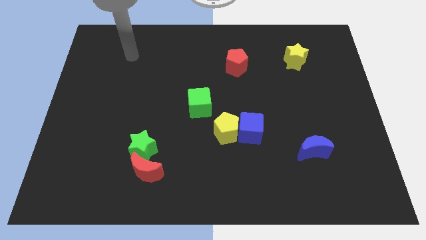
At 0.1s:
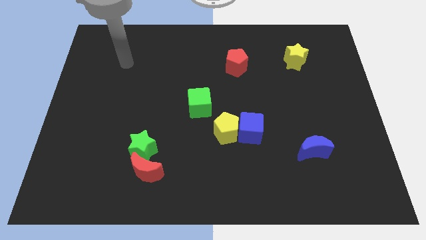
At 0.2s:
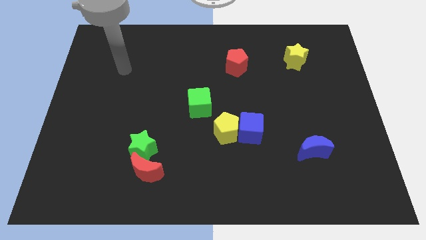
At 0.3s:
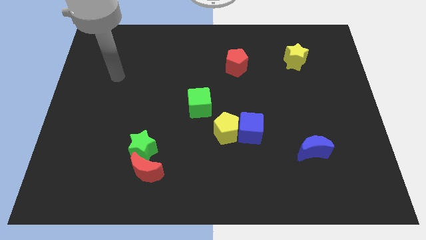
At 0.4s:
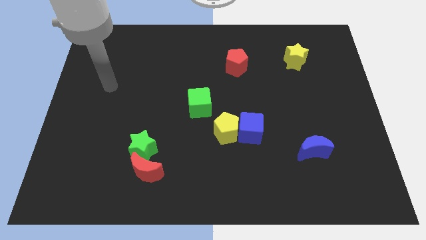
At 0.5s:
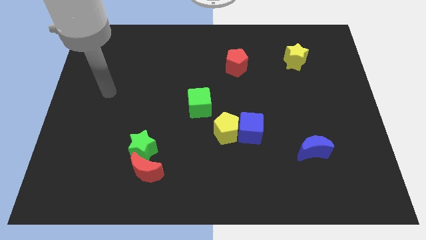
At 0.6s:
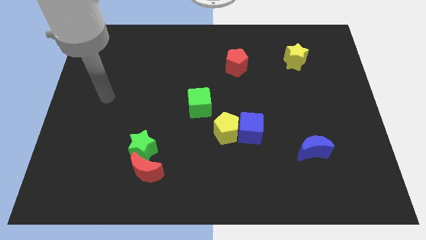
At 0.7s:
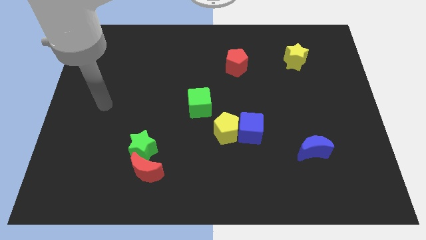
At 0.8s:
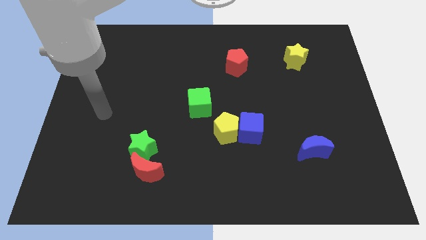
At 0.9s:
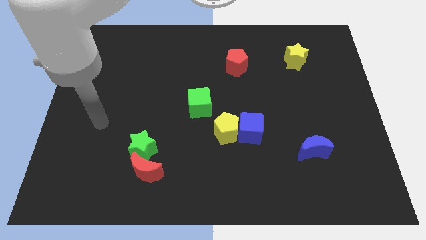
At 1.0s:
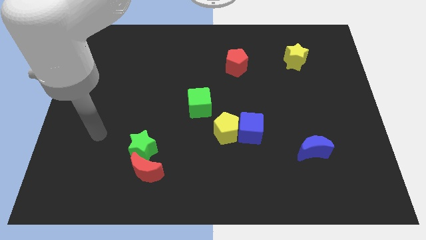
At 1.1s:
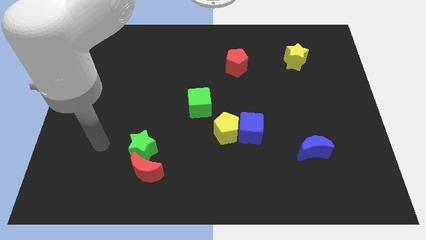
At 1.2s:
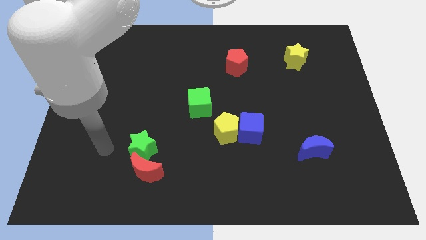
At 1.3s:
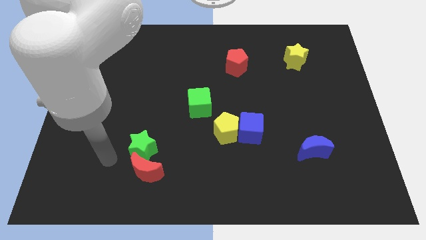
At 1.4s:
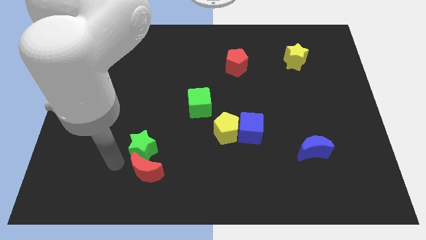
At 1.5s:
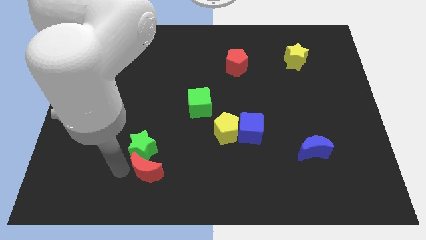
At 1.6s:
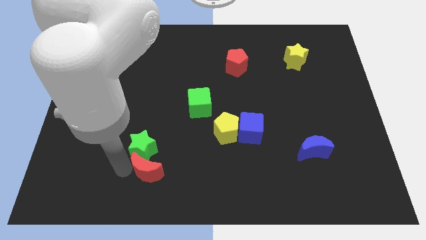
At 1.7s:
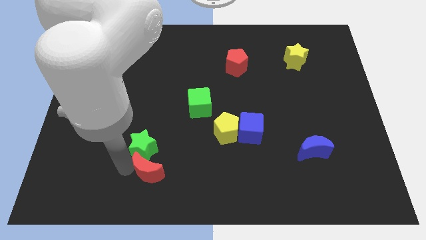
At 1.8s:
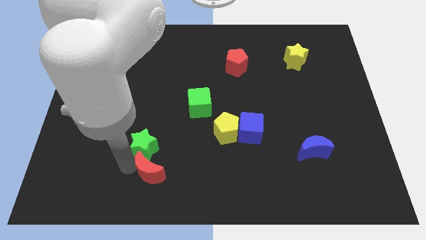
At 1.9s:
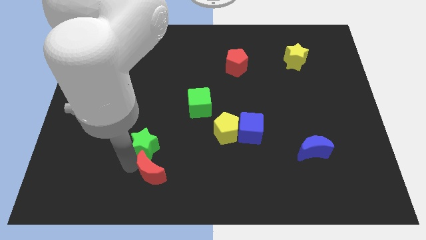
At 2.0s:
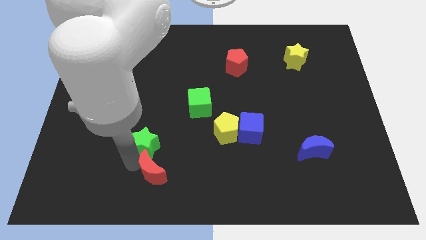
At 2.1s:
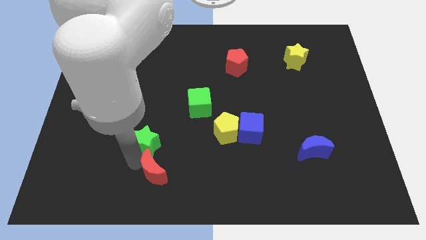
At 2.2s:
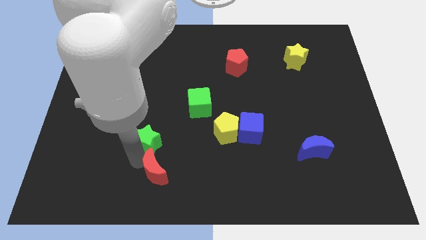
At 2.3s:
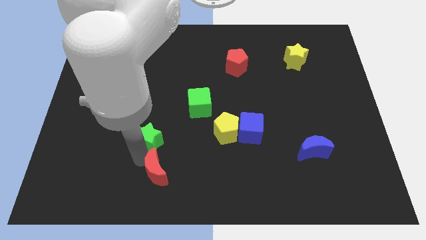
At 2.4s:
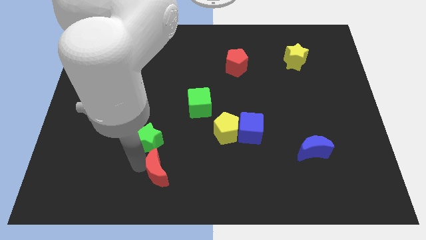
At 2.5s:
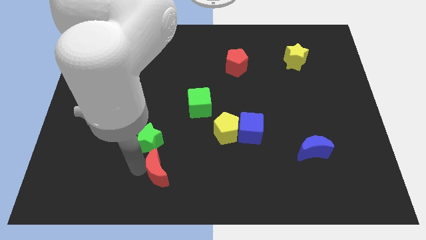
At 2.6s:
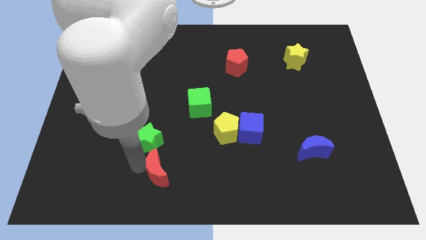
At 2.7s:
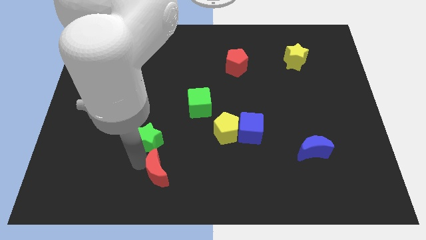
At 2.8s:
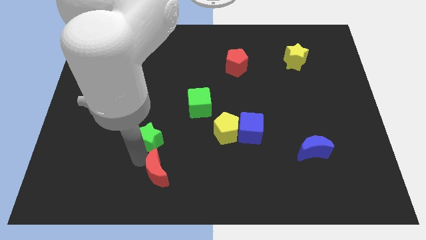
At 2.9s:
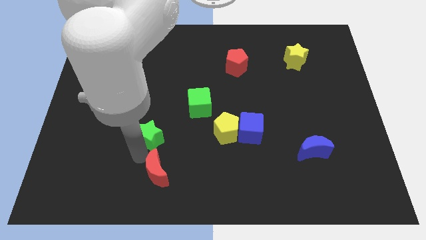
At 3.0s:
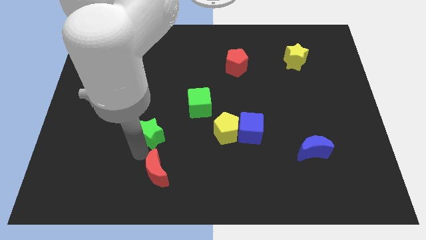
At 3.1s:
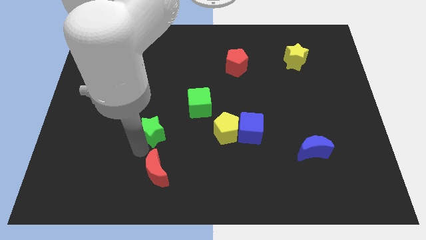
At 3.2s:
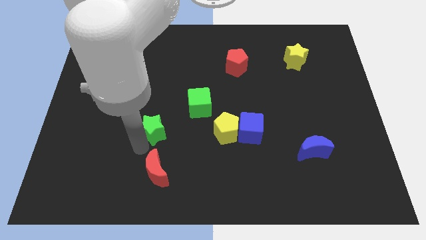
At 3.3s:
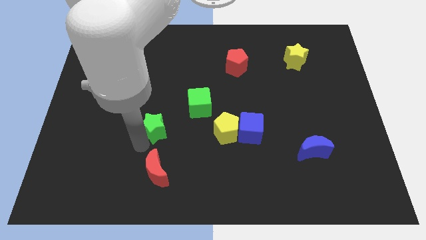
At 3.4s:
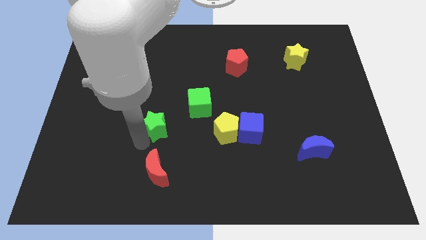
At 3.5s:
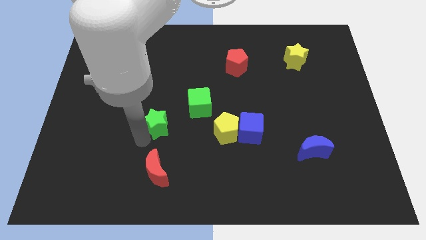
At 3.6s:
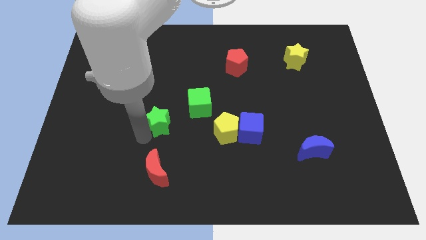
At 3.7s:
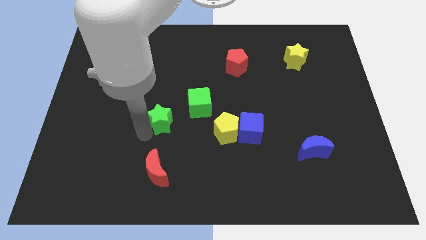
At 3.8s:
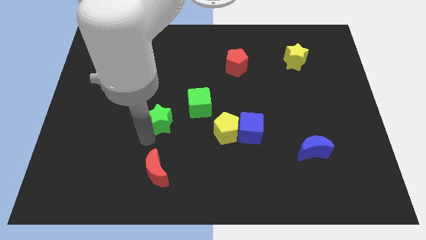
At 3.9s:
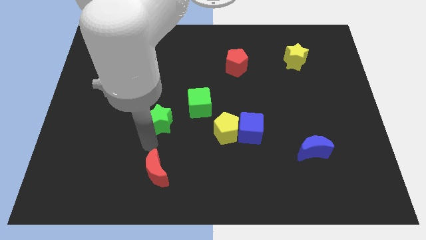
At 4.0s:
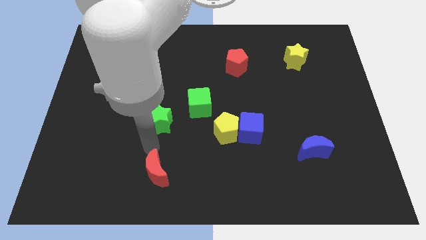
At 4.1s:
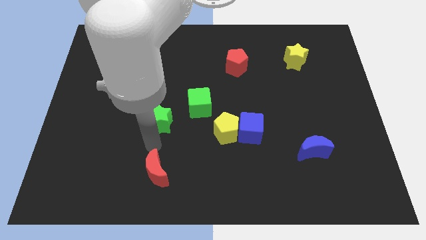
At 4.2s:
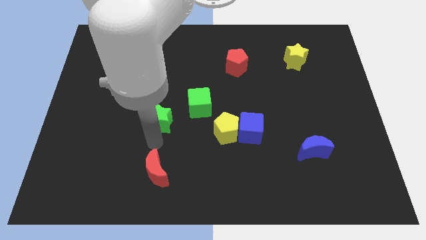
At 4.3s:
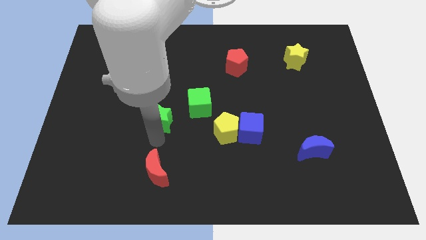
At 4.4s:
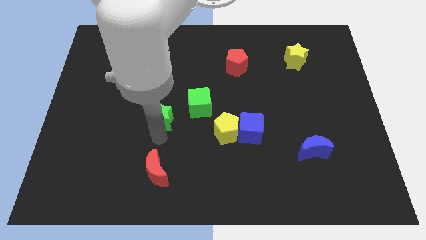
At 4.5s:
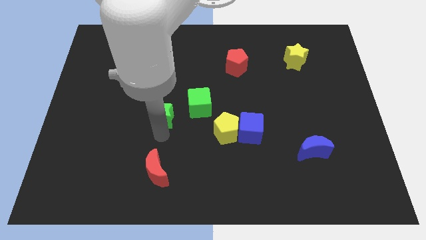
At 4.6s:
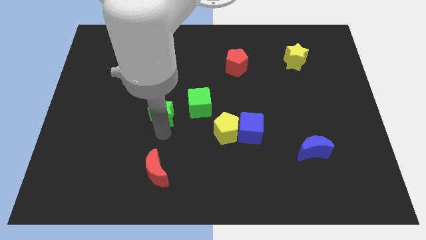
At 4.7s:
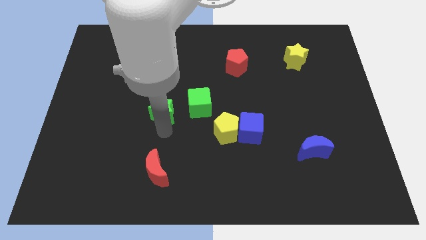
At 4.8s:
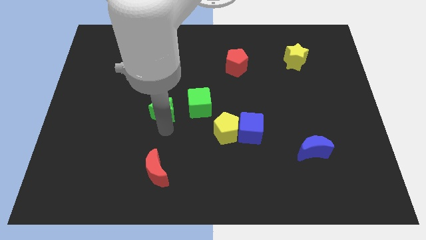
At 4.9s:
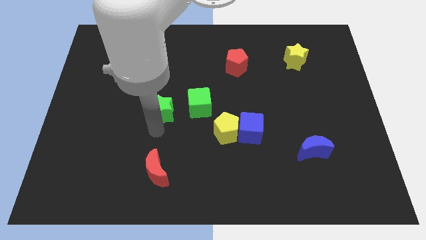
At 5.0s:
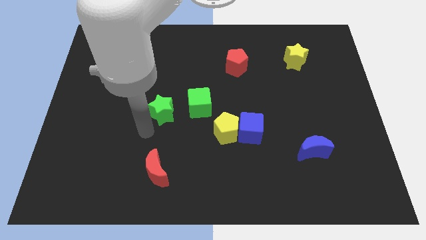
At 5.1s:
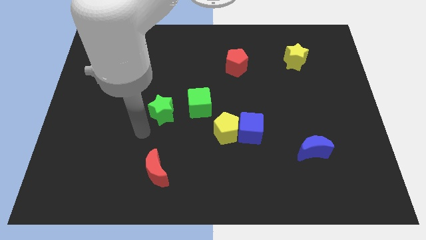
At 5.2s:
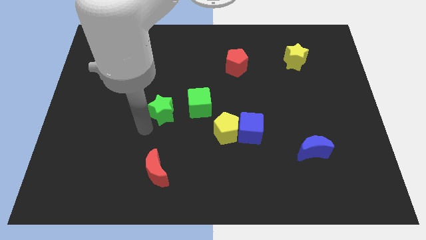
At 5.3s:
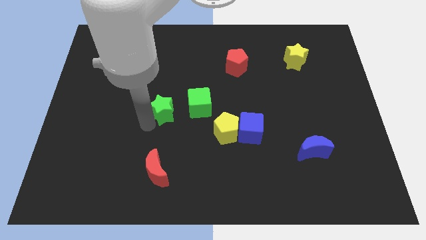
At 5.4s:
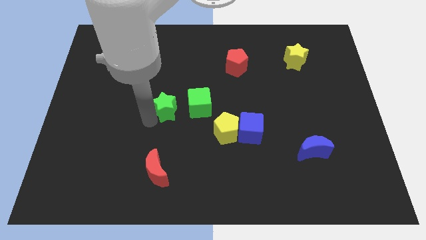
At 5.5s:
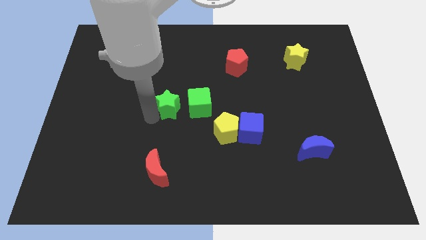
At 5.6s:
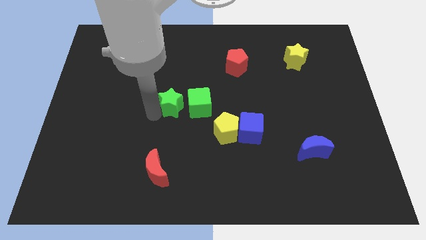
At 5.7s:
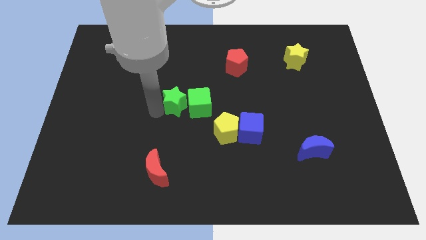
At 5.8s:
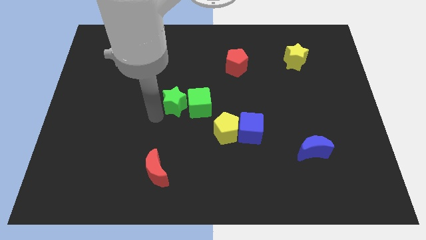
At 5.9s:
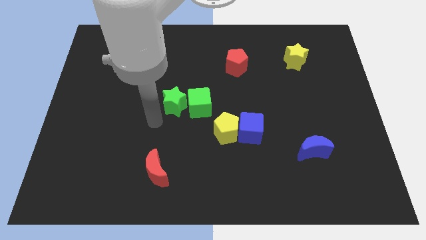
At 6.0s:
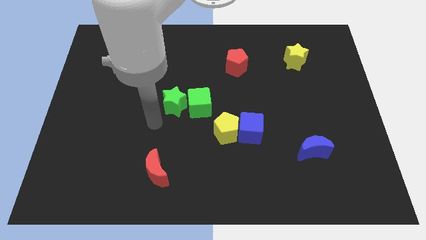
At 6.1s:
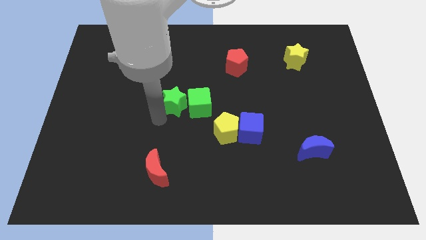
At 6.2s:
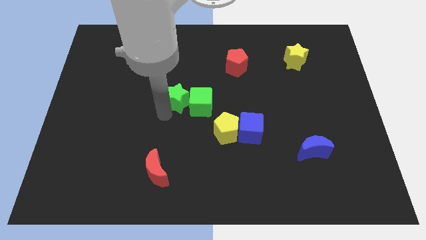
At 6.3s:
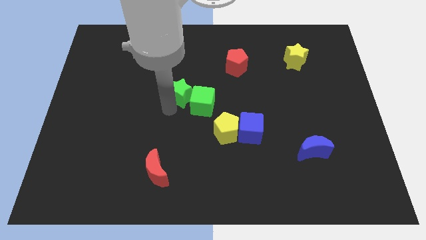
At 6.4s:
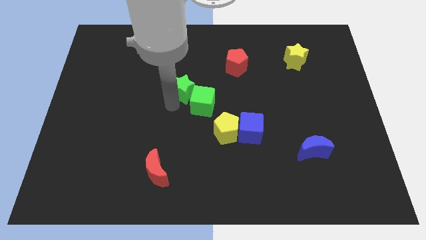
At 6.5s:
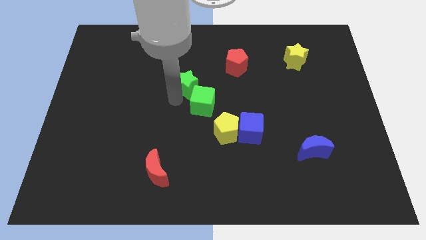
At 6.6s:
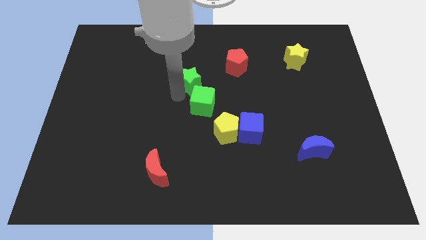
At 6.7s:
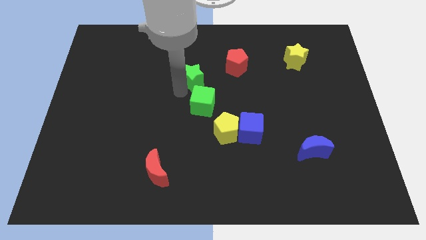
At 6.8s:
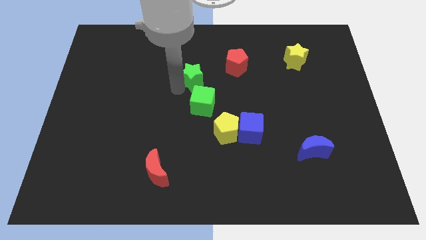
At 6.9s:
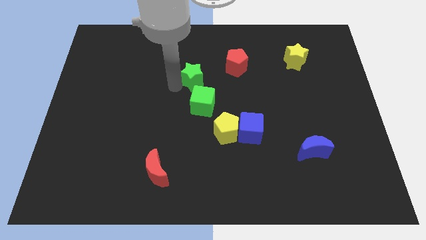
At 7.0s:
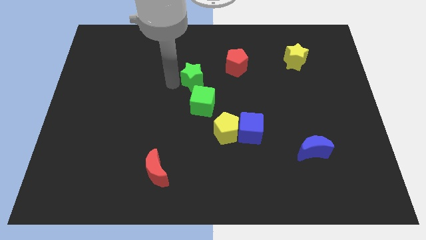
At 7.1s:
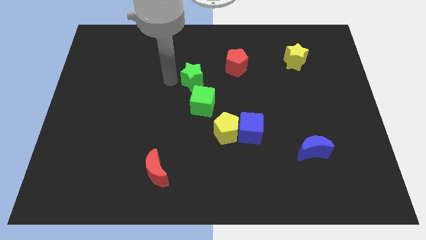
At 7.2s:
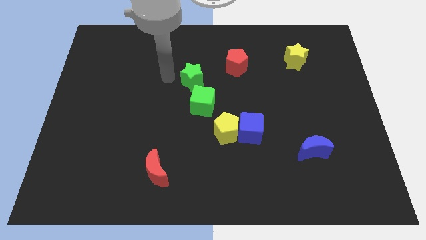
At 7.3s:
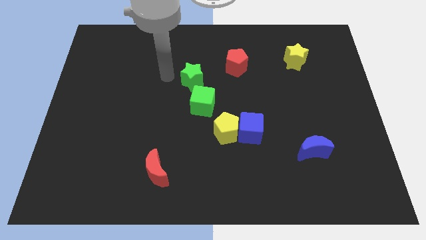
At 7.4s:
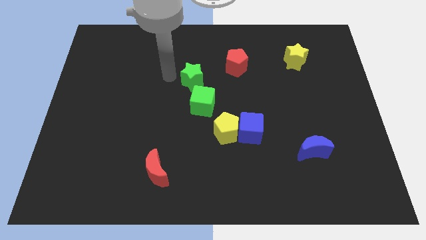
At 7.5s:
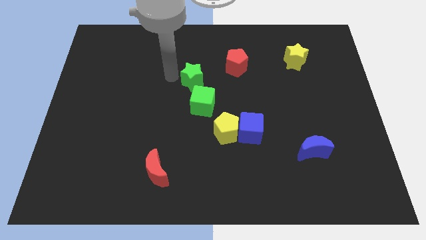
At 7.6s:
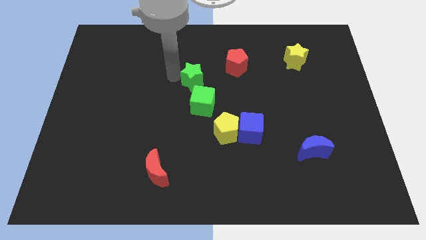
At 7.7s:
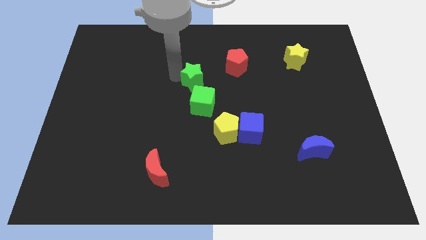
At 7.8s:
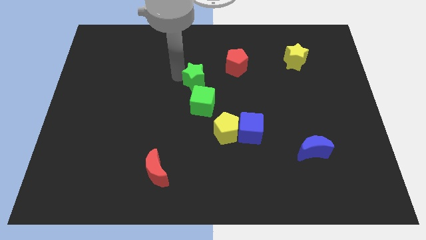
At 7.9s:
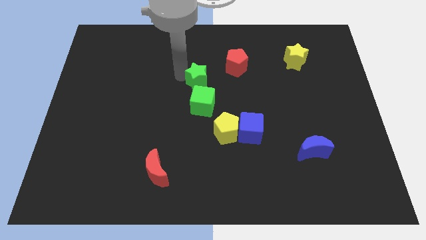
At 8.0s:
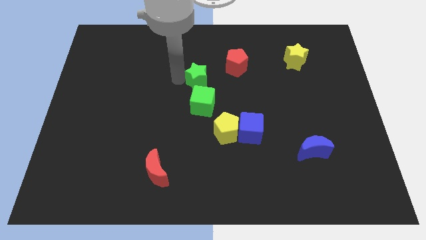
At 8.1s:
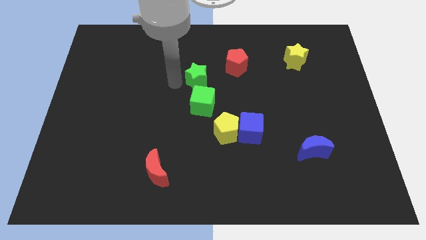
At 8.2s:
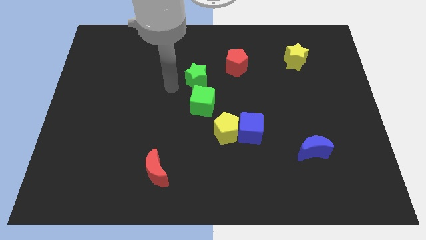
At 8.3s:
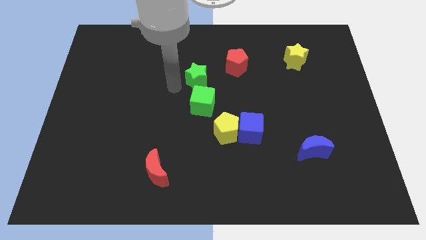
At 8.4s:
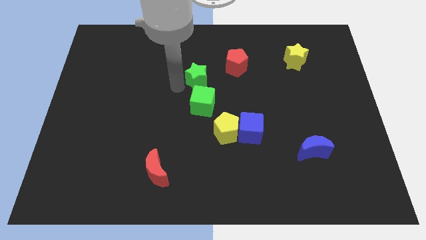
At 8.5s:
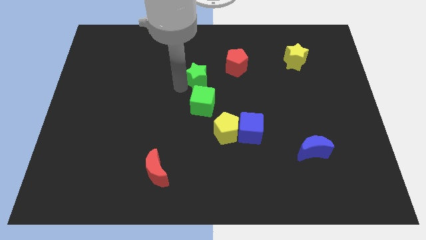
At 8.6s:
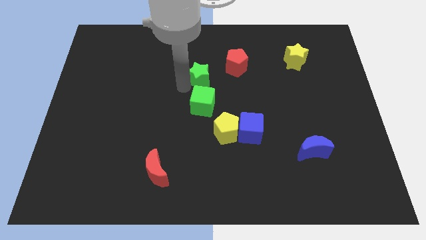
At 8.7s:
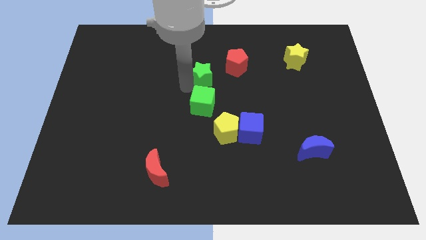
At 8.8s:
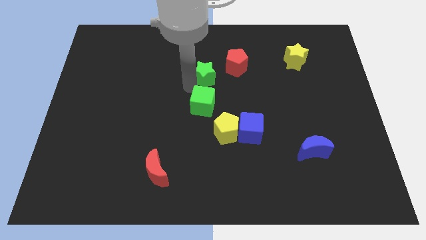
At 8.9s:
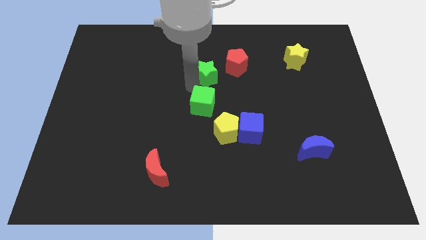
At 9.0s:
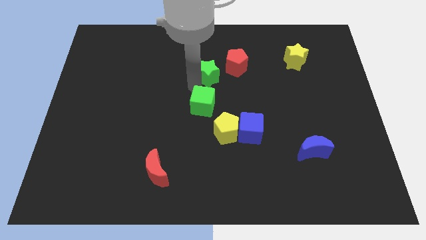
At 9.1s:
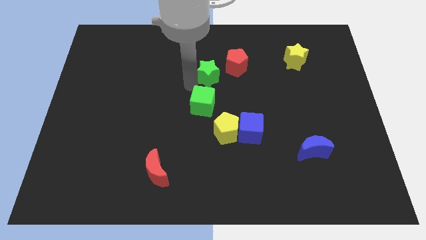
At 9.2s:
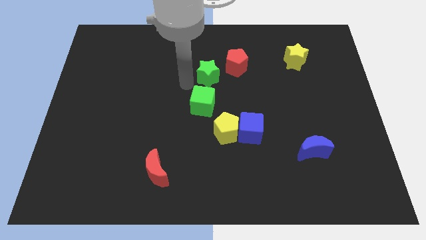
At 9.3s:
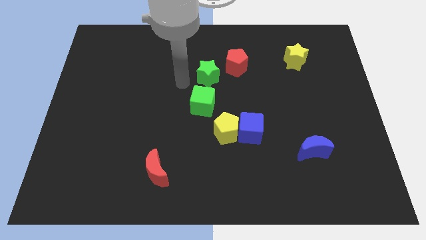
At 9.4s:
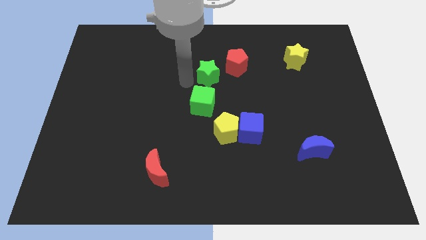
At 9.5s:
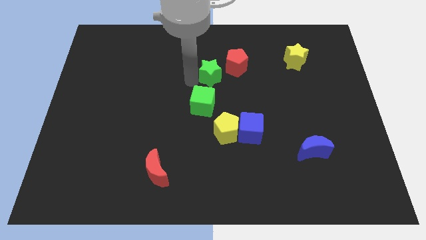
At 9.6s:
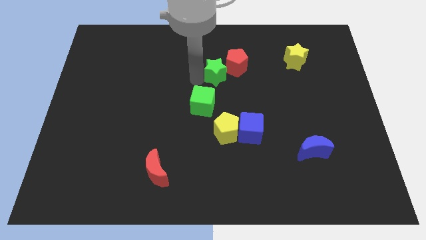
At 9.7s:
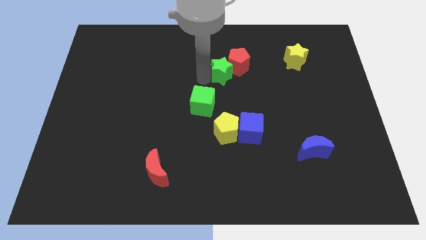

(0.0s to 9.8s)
push the green star next to the red pentagon
